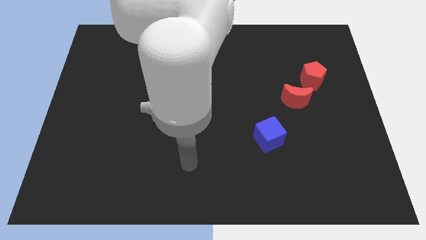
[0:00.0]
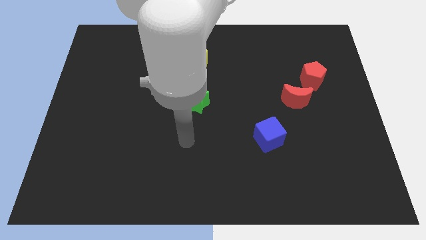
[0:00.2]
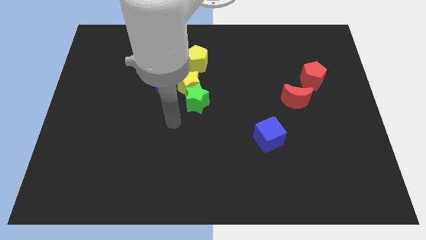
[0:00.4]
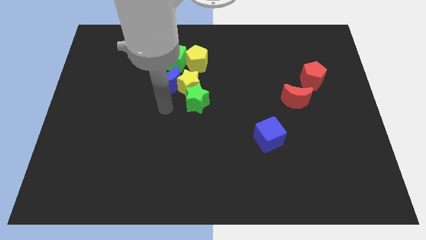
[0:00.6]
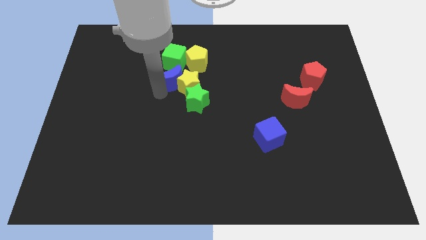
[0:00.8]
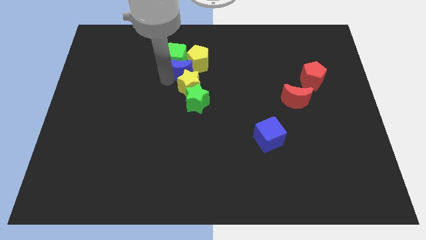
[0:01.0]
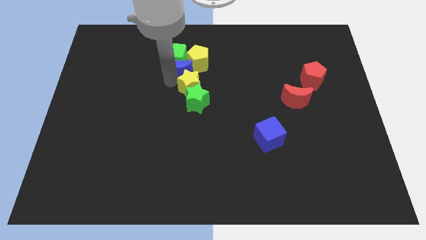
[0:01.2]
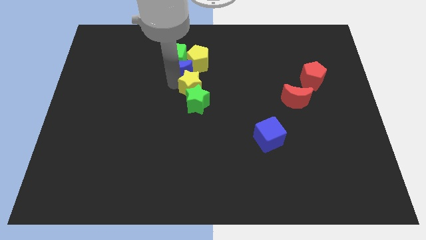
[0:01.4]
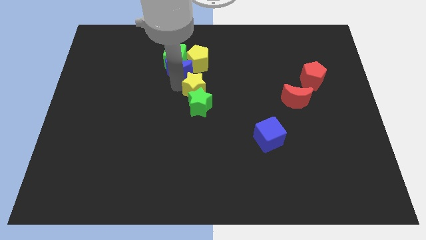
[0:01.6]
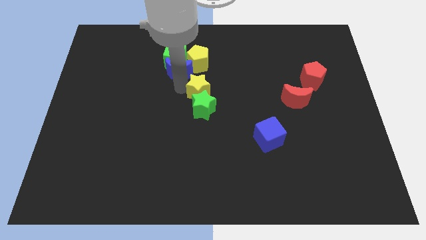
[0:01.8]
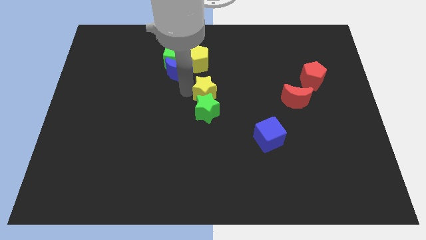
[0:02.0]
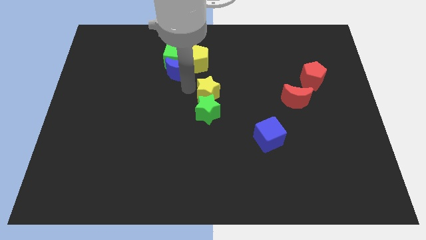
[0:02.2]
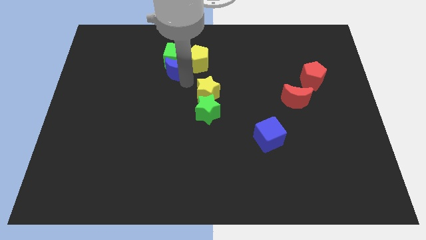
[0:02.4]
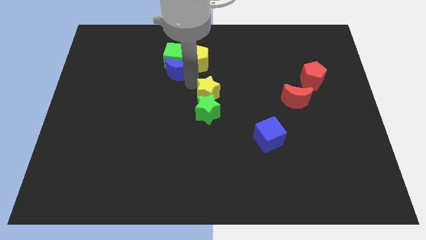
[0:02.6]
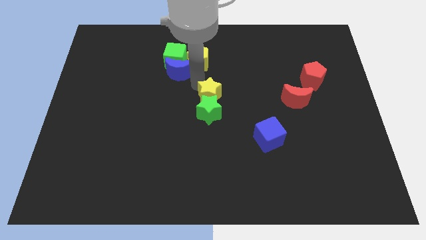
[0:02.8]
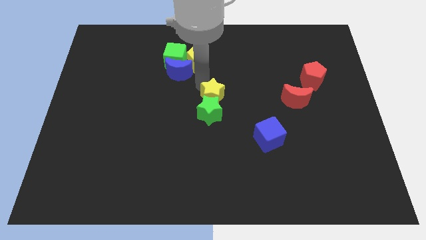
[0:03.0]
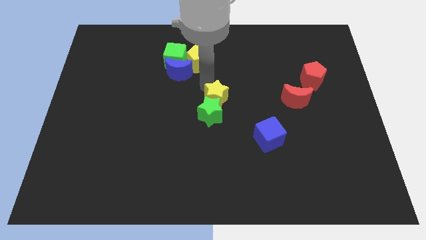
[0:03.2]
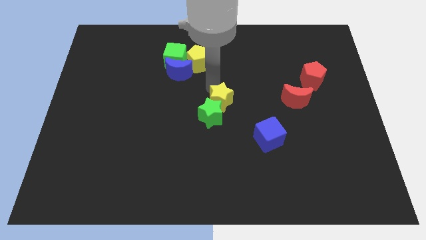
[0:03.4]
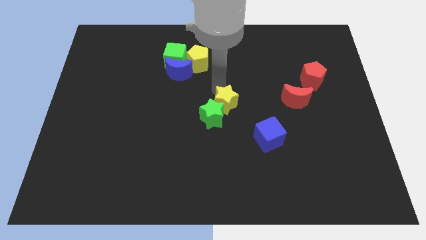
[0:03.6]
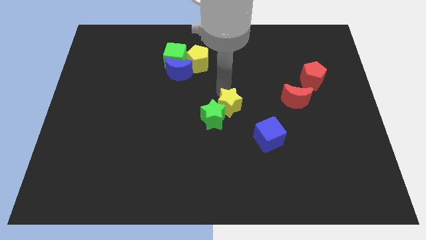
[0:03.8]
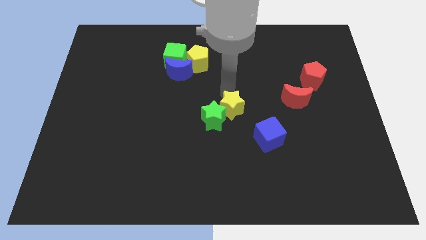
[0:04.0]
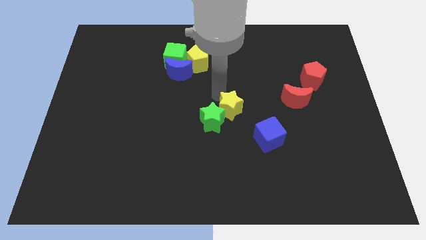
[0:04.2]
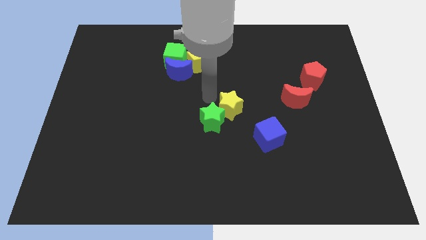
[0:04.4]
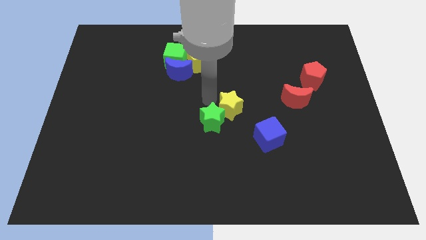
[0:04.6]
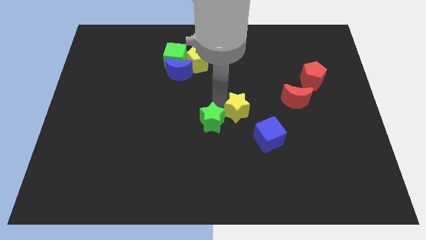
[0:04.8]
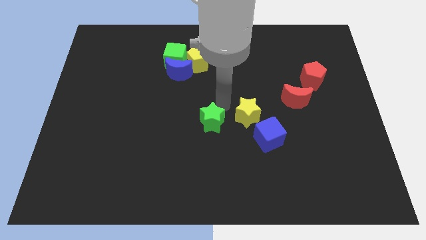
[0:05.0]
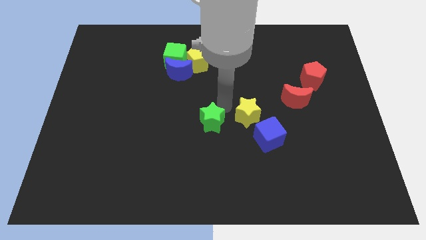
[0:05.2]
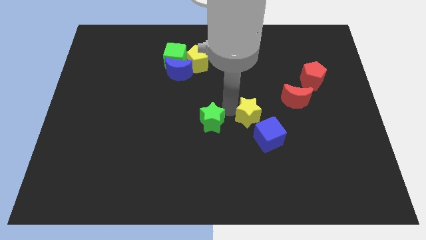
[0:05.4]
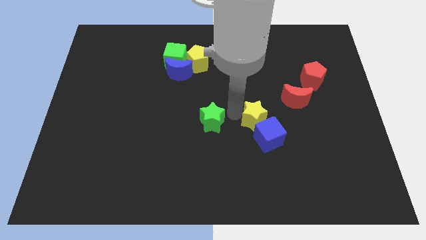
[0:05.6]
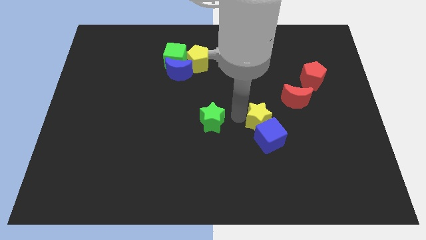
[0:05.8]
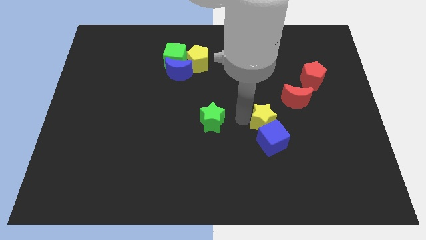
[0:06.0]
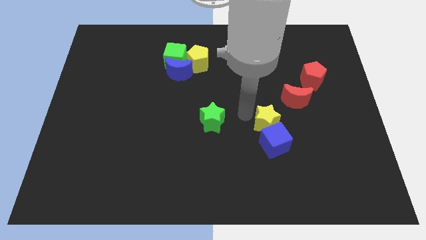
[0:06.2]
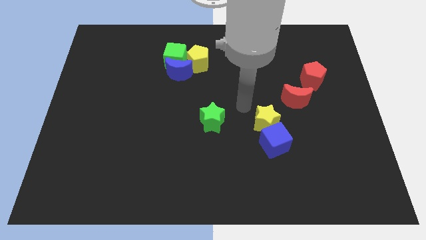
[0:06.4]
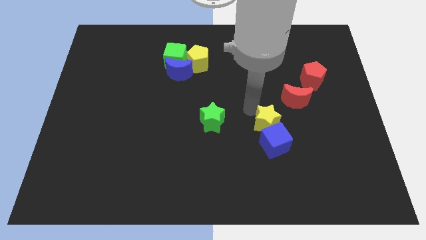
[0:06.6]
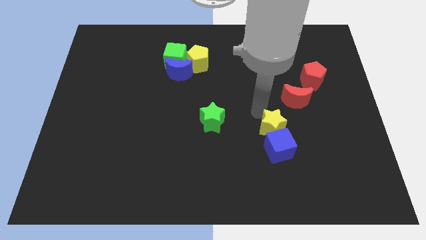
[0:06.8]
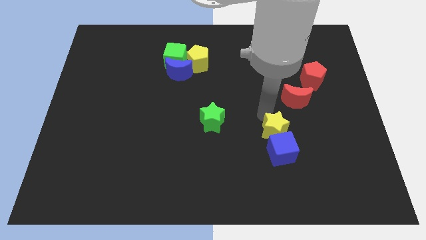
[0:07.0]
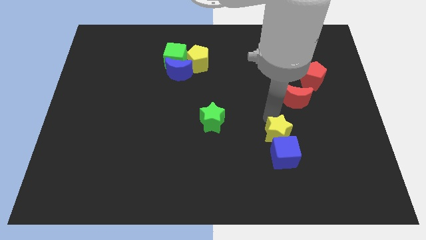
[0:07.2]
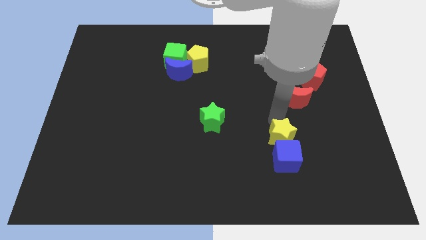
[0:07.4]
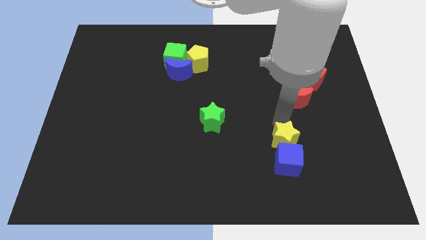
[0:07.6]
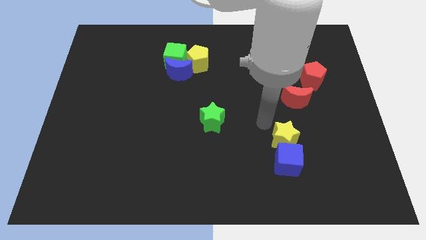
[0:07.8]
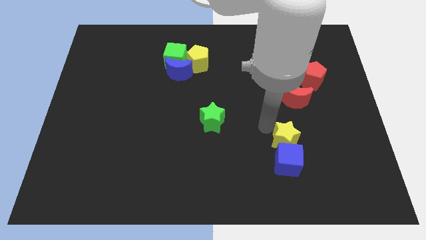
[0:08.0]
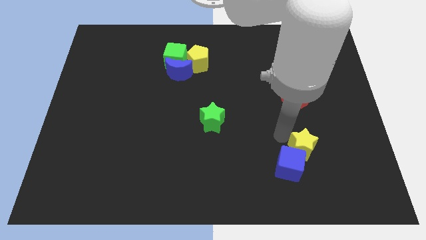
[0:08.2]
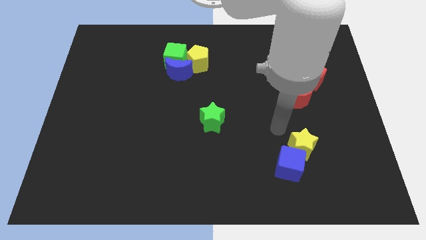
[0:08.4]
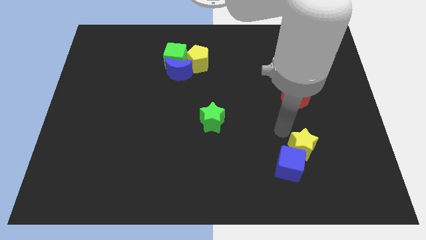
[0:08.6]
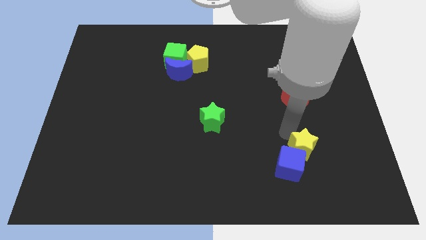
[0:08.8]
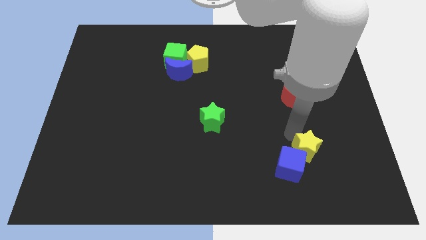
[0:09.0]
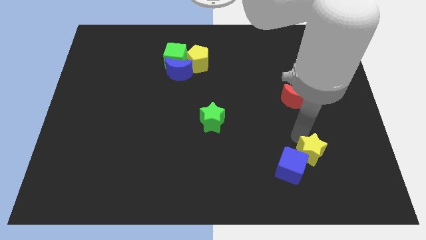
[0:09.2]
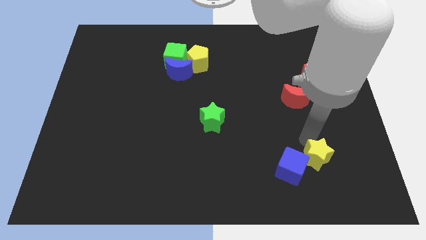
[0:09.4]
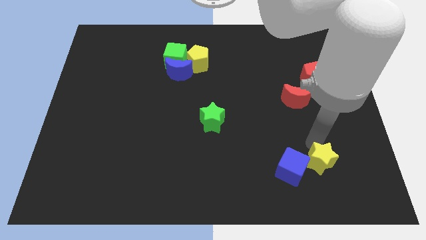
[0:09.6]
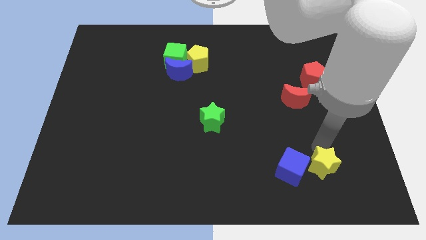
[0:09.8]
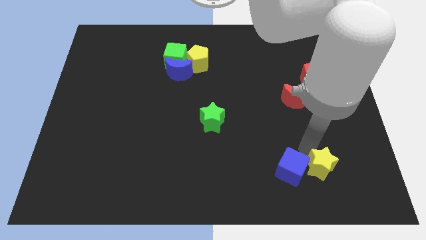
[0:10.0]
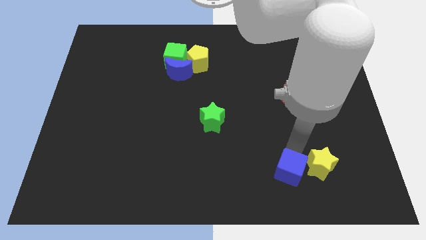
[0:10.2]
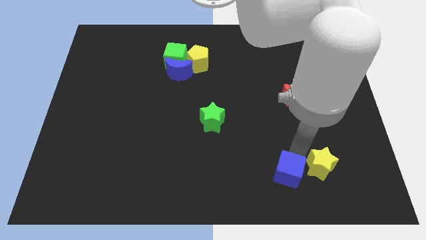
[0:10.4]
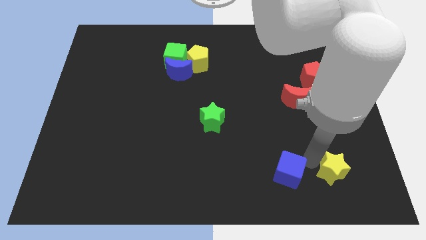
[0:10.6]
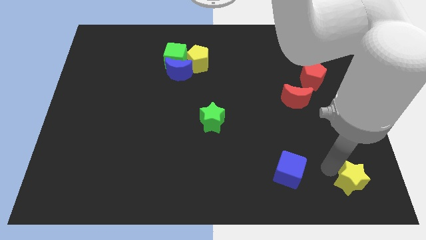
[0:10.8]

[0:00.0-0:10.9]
slide the yellow star to the bottom right of the board

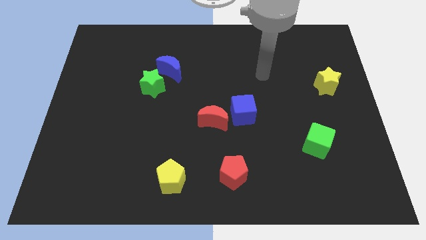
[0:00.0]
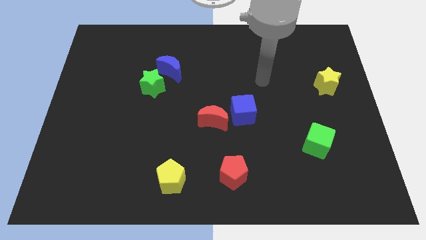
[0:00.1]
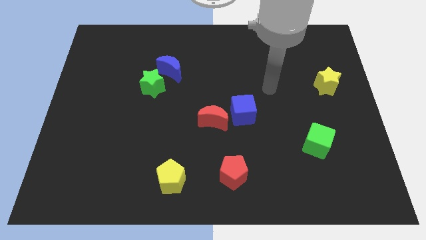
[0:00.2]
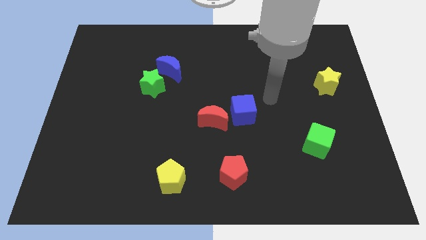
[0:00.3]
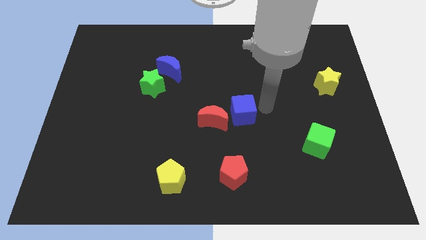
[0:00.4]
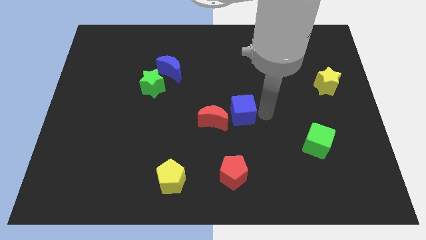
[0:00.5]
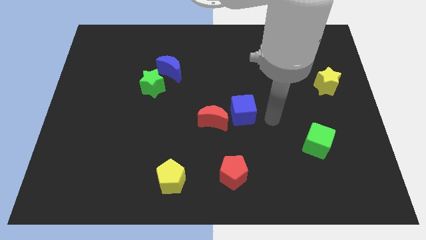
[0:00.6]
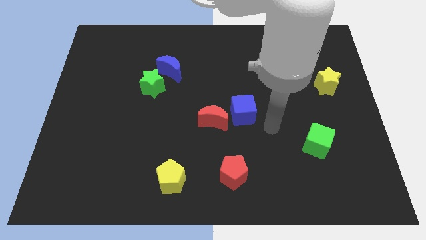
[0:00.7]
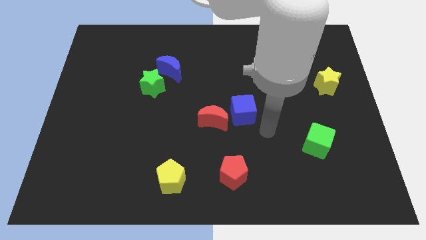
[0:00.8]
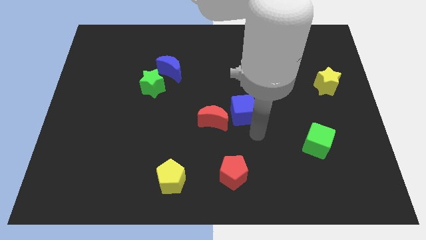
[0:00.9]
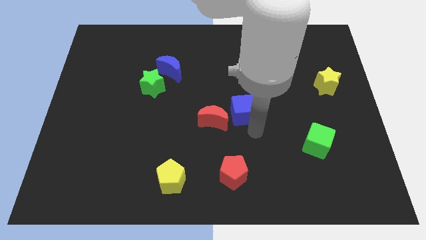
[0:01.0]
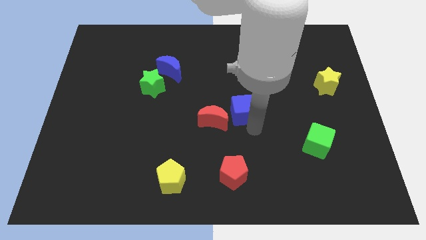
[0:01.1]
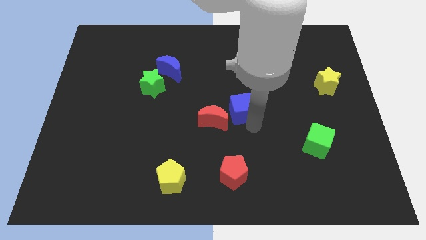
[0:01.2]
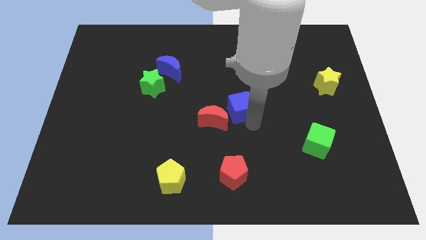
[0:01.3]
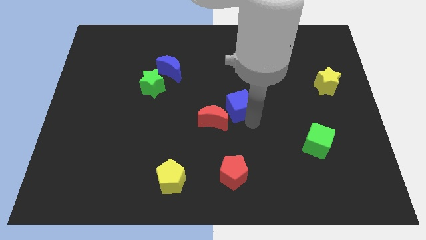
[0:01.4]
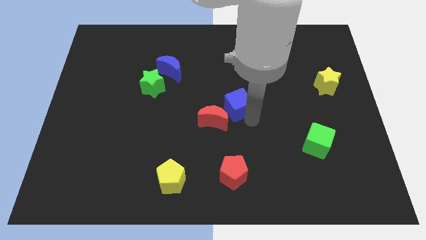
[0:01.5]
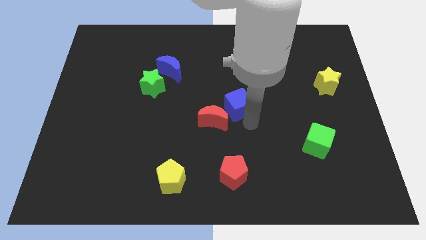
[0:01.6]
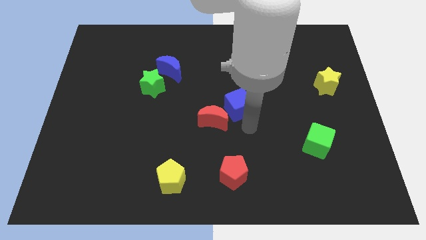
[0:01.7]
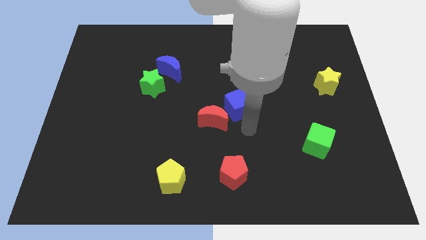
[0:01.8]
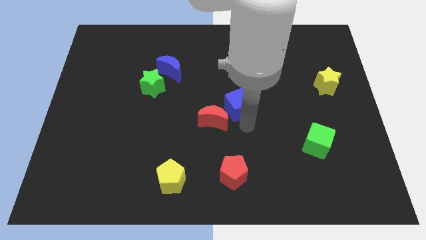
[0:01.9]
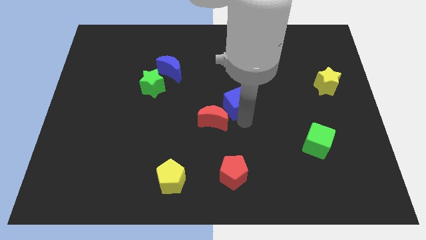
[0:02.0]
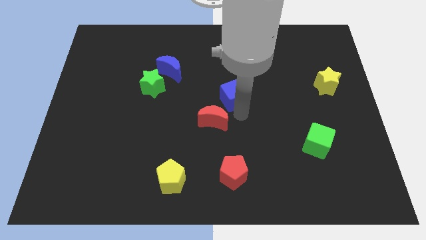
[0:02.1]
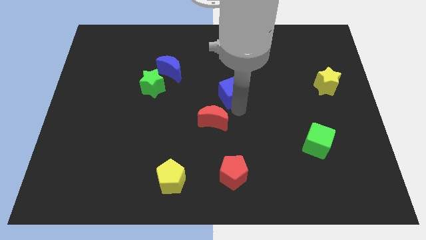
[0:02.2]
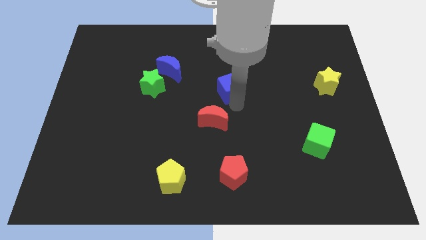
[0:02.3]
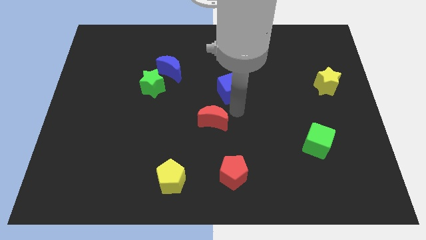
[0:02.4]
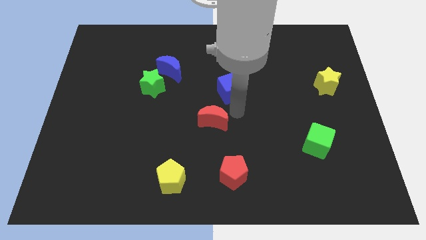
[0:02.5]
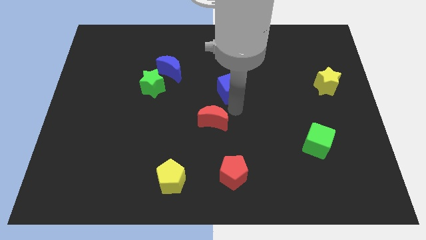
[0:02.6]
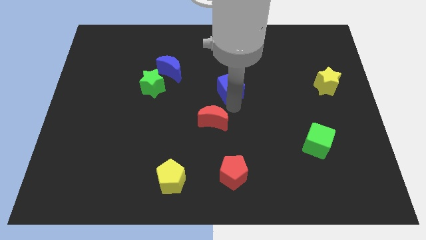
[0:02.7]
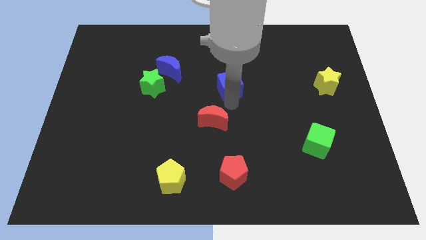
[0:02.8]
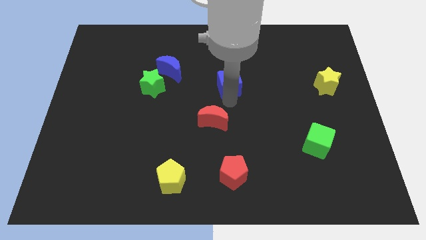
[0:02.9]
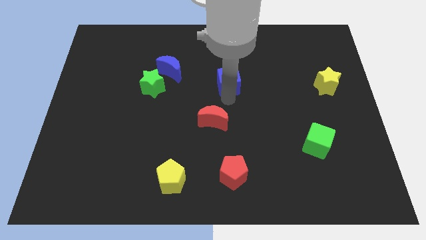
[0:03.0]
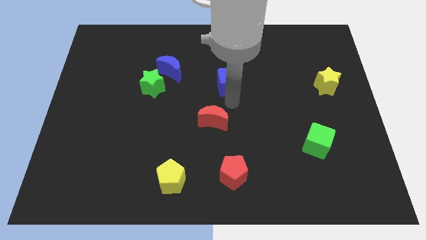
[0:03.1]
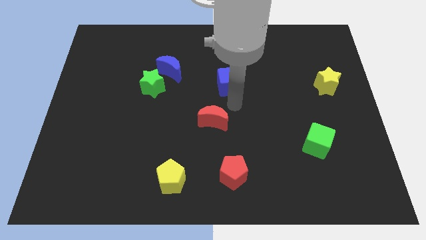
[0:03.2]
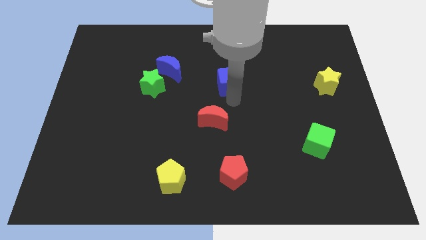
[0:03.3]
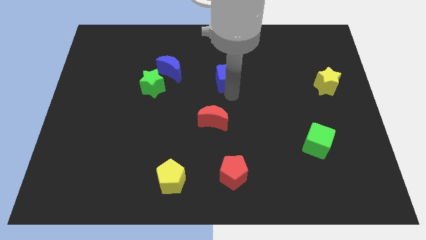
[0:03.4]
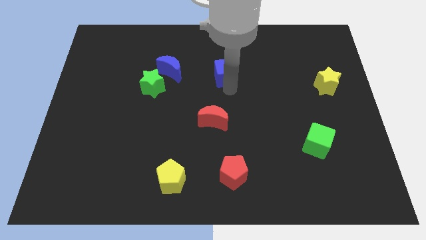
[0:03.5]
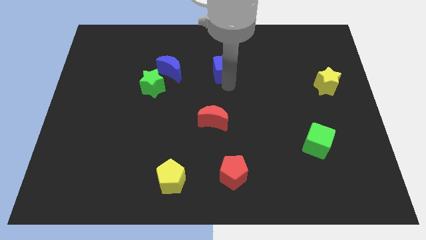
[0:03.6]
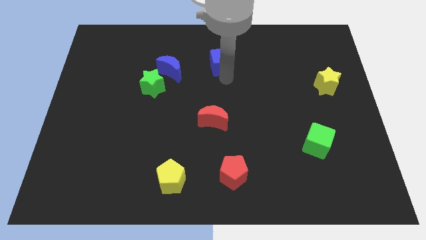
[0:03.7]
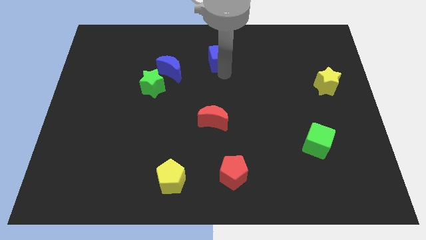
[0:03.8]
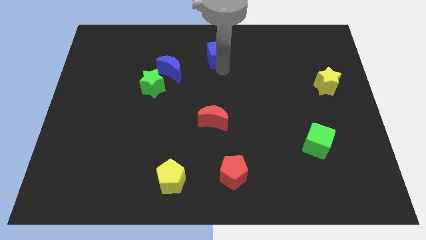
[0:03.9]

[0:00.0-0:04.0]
push the blue cube to the top
